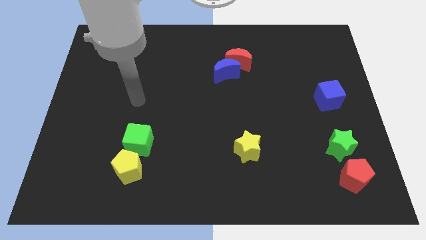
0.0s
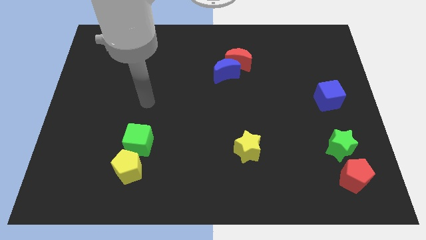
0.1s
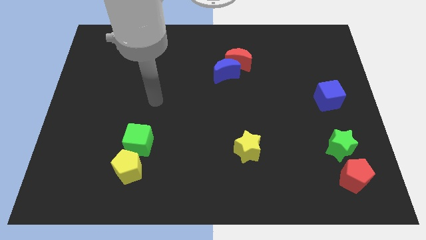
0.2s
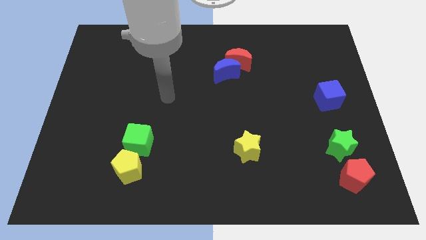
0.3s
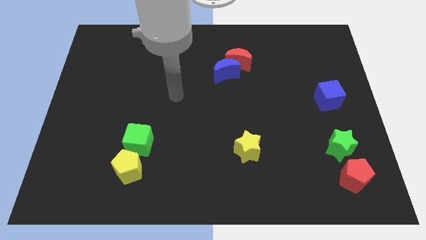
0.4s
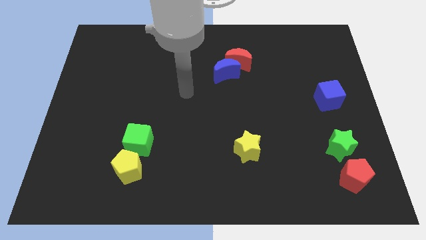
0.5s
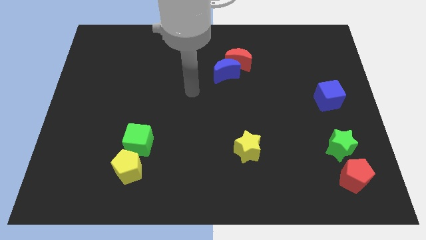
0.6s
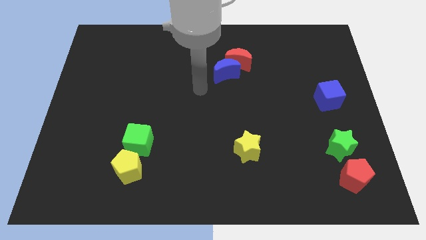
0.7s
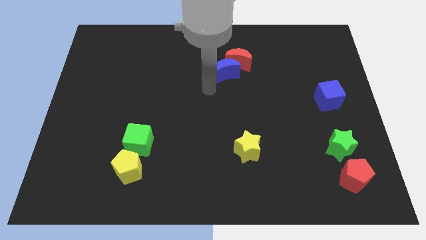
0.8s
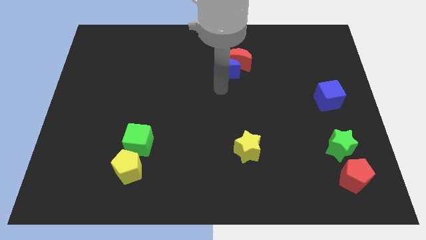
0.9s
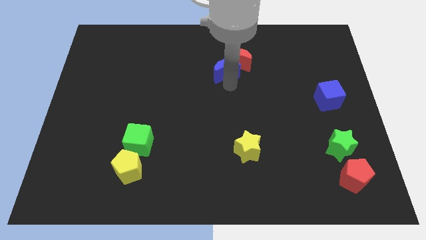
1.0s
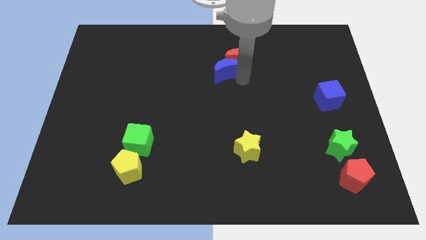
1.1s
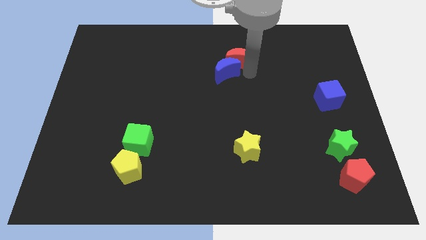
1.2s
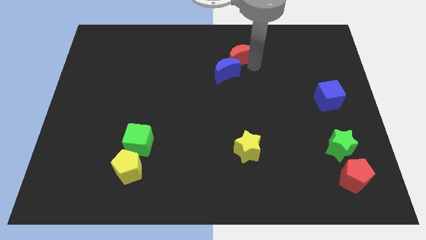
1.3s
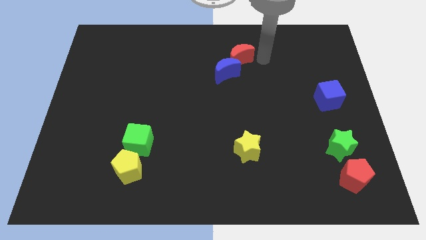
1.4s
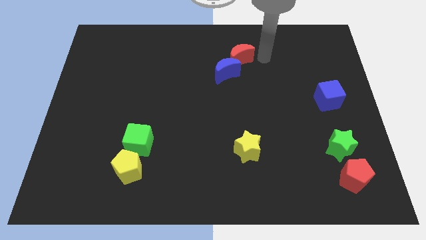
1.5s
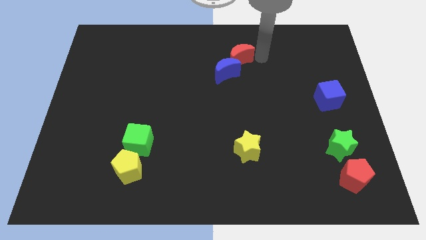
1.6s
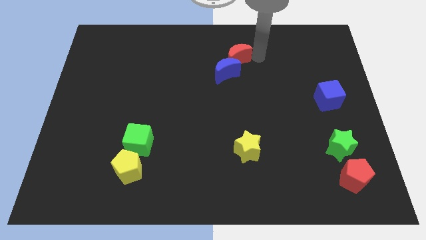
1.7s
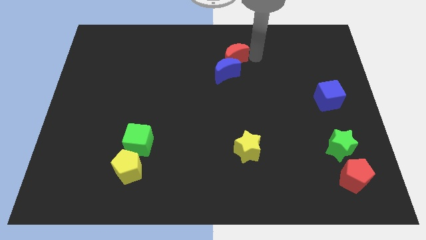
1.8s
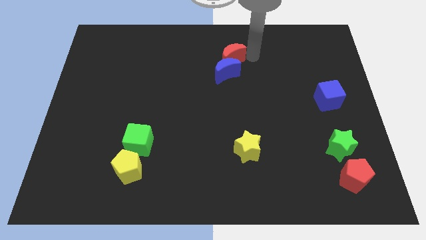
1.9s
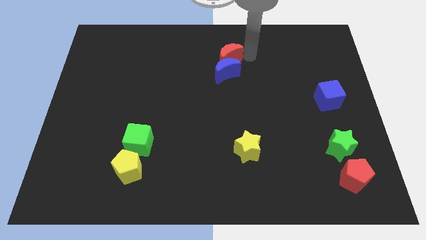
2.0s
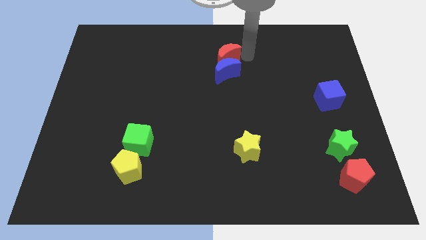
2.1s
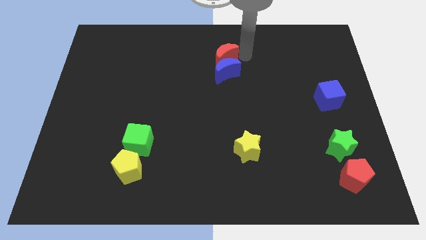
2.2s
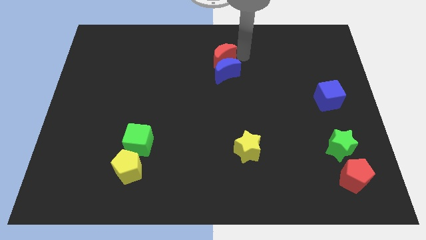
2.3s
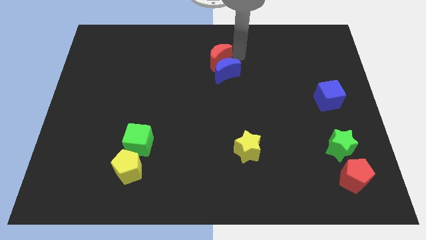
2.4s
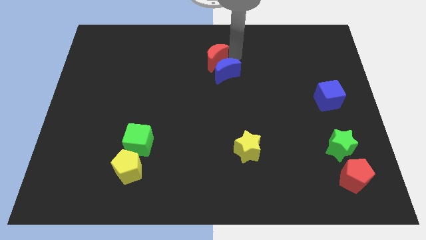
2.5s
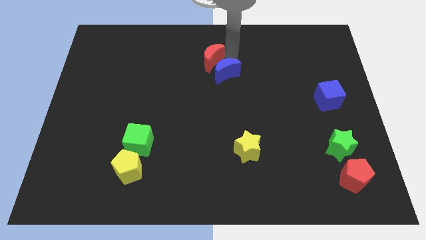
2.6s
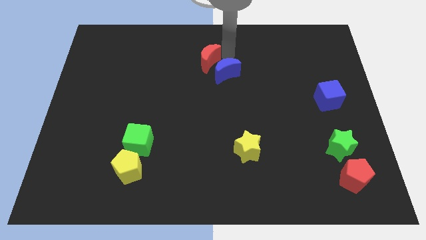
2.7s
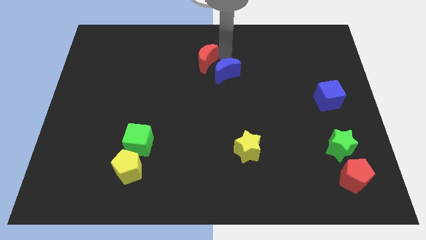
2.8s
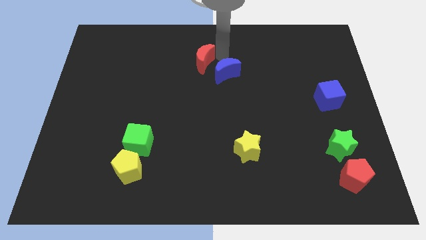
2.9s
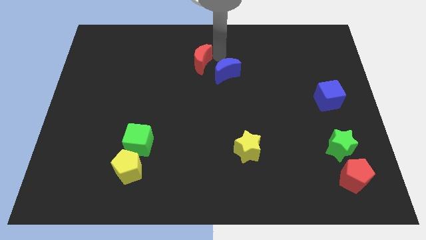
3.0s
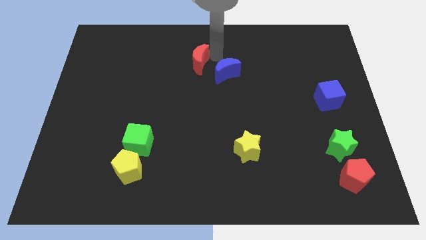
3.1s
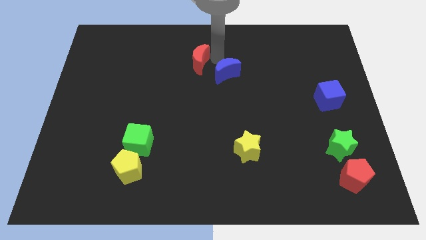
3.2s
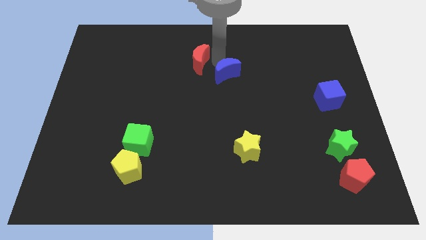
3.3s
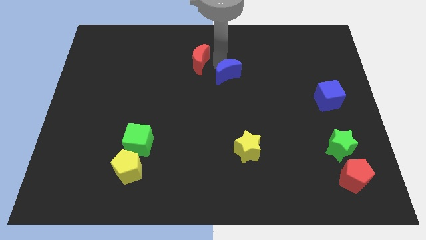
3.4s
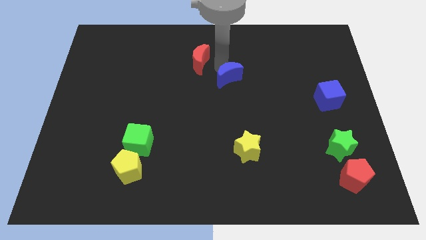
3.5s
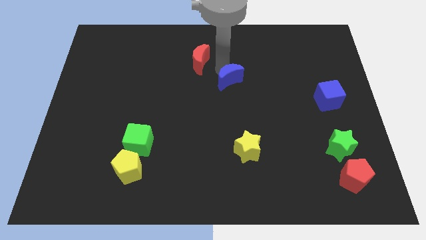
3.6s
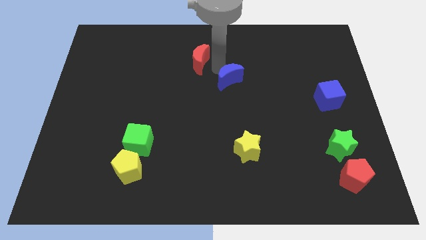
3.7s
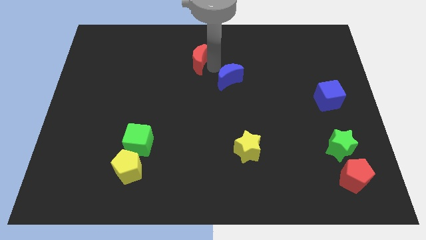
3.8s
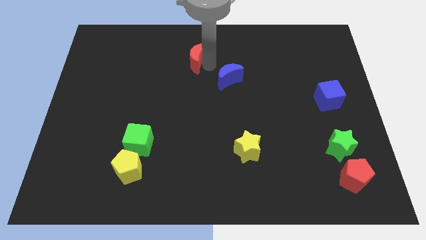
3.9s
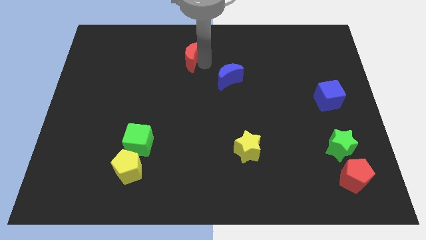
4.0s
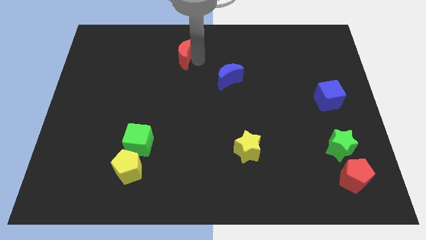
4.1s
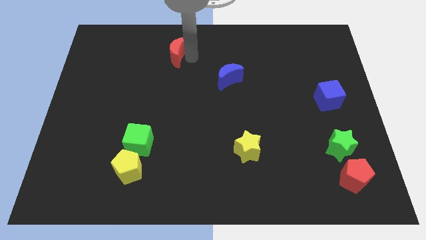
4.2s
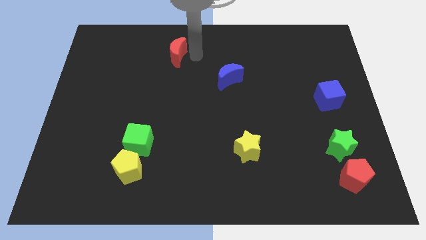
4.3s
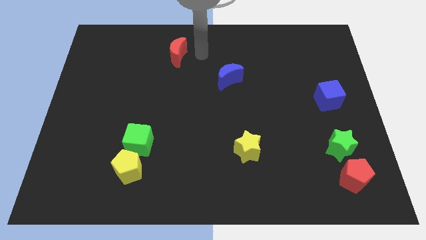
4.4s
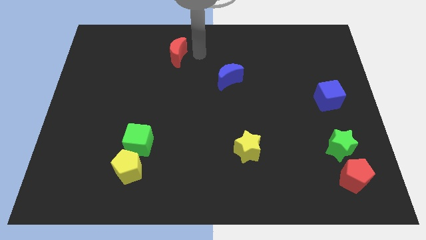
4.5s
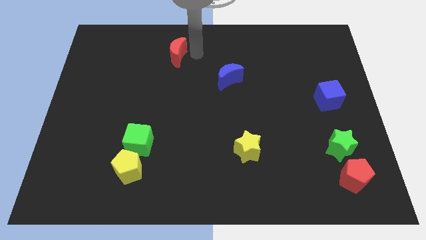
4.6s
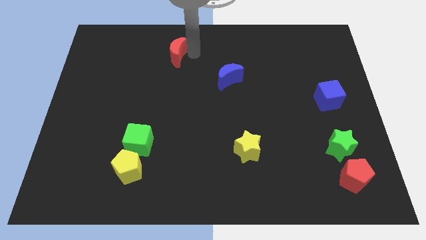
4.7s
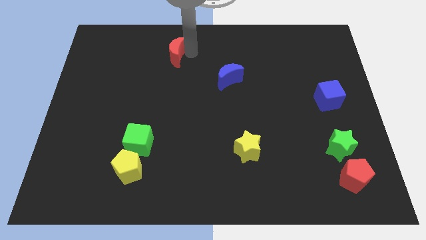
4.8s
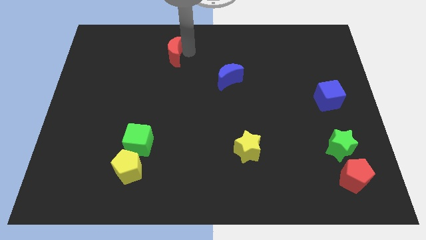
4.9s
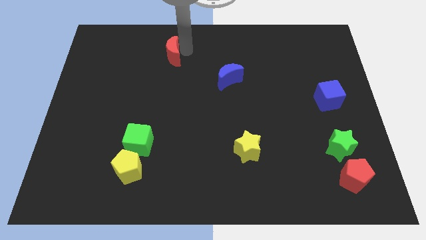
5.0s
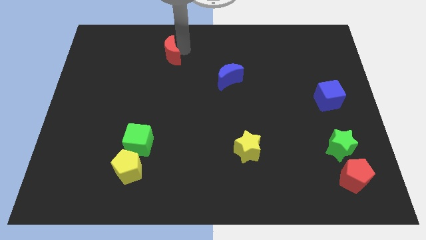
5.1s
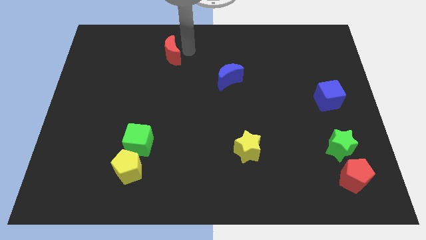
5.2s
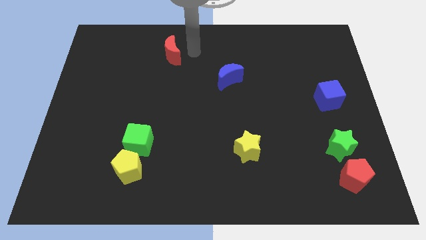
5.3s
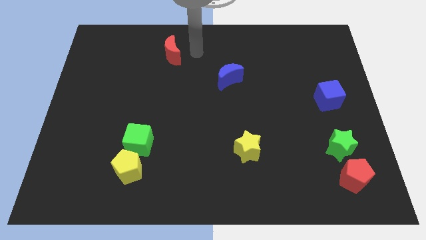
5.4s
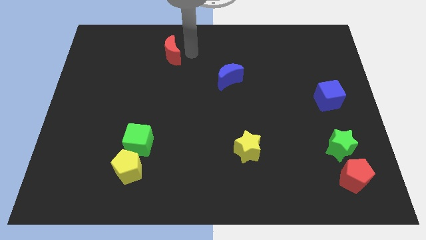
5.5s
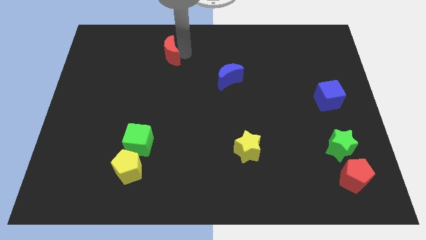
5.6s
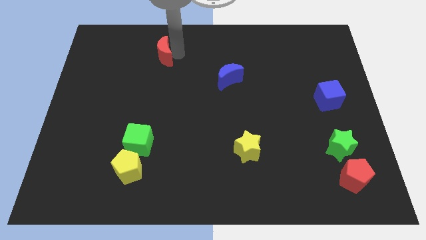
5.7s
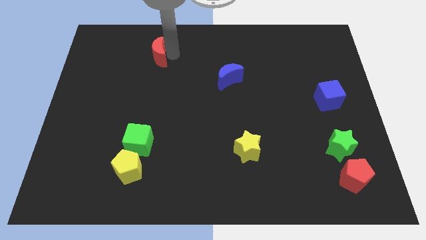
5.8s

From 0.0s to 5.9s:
slide the red moon to the left

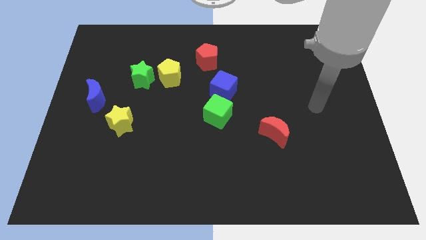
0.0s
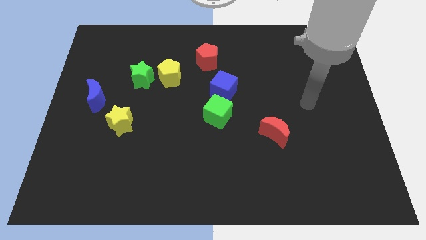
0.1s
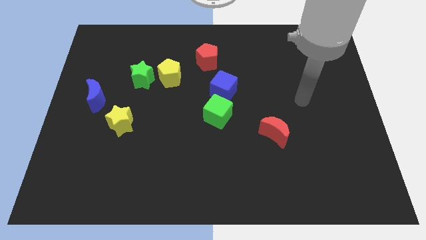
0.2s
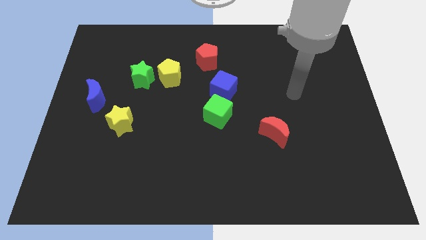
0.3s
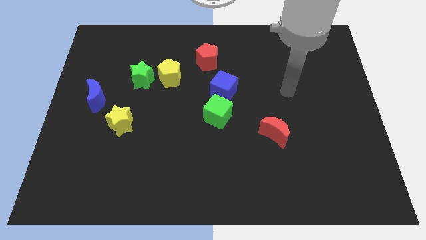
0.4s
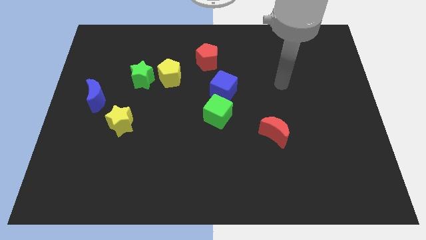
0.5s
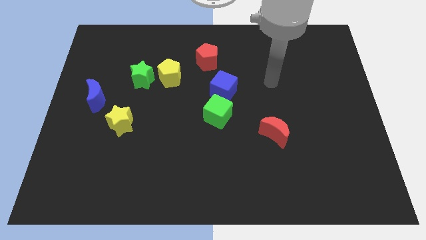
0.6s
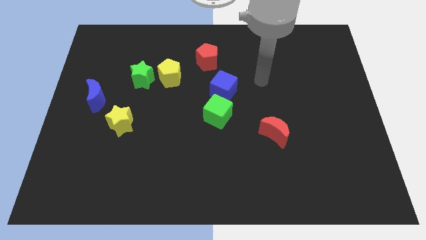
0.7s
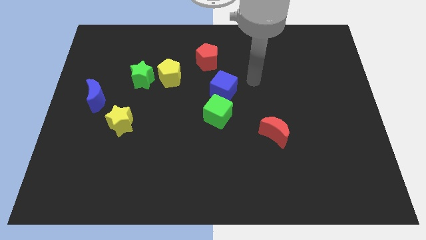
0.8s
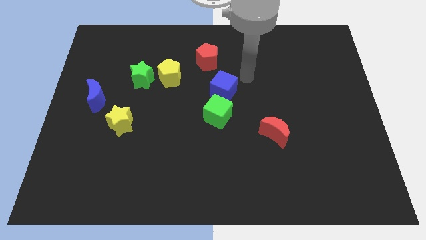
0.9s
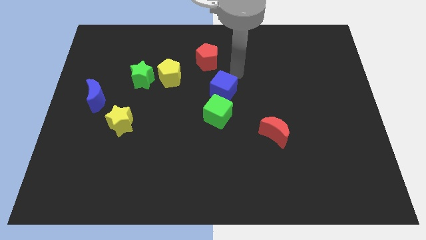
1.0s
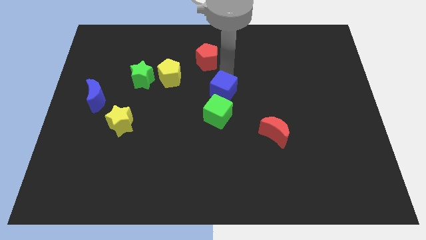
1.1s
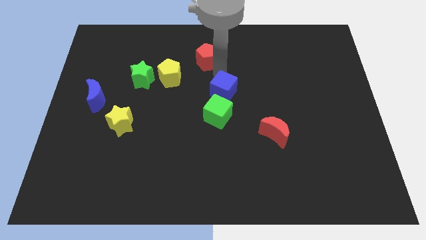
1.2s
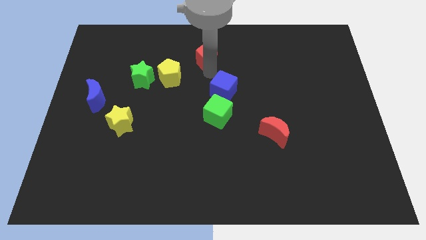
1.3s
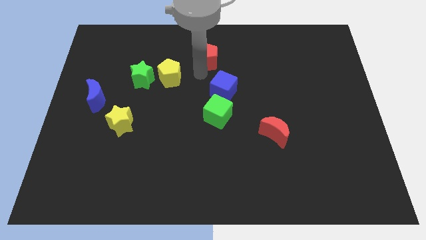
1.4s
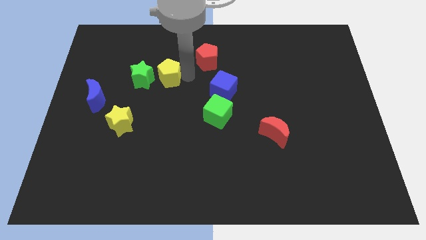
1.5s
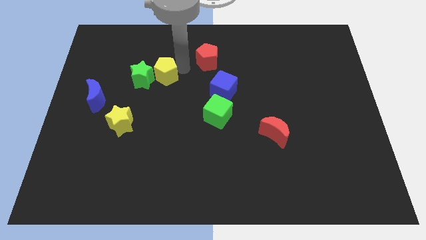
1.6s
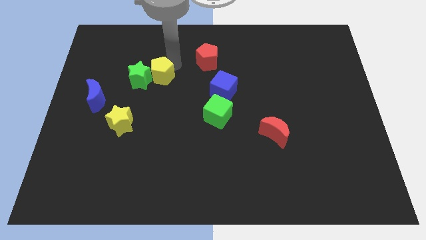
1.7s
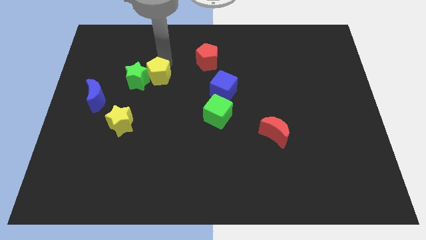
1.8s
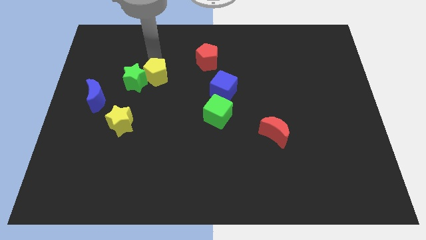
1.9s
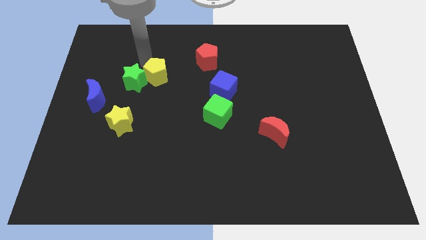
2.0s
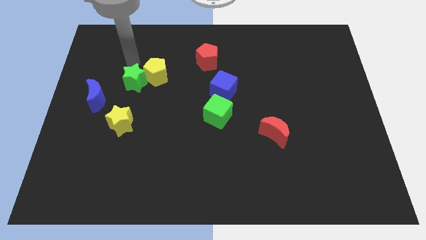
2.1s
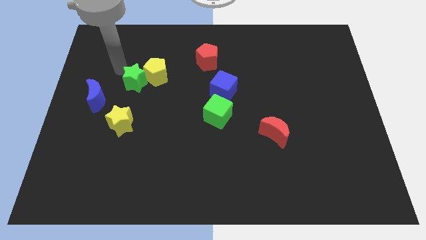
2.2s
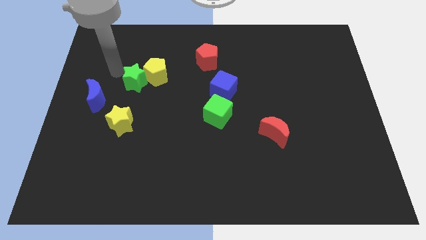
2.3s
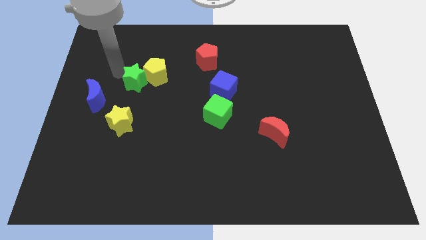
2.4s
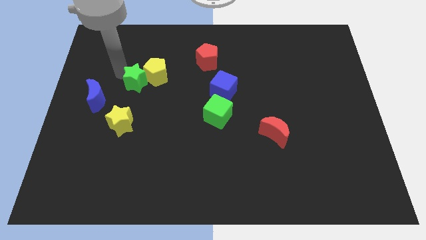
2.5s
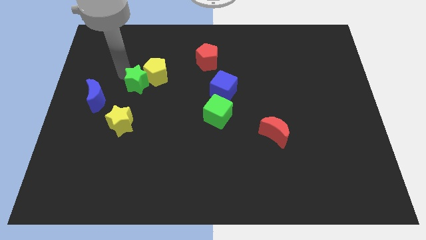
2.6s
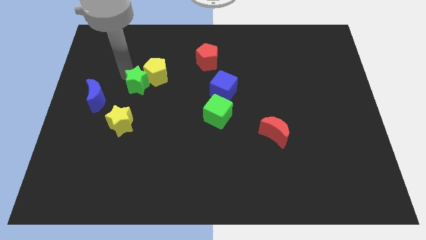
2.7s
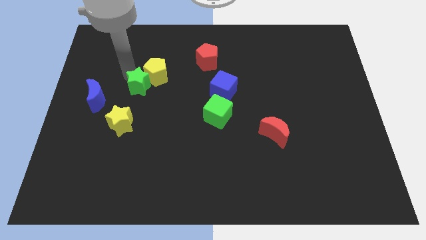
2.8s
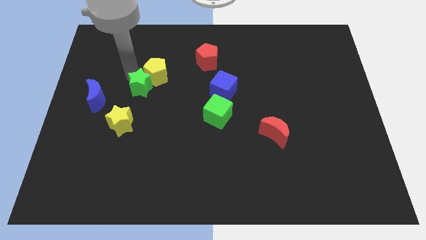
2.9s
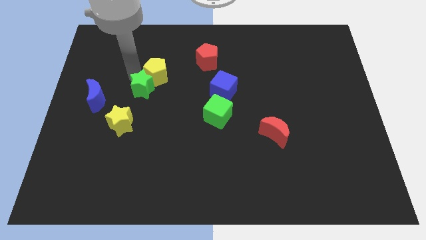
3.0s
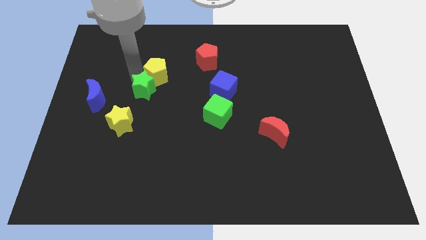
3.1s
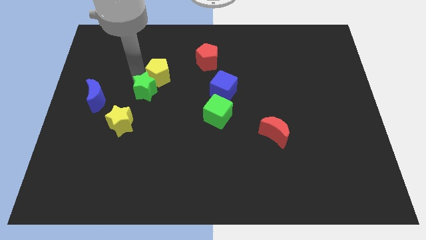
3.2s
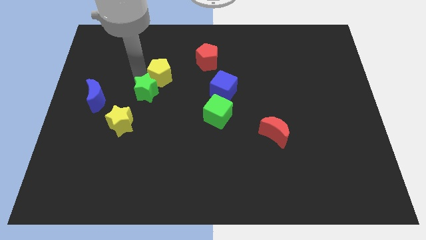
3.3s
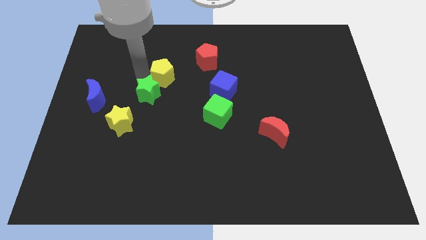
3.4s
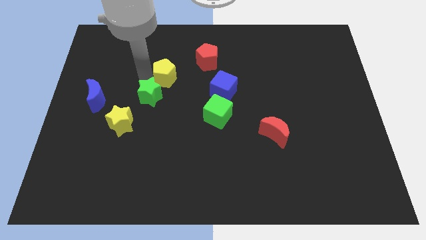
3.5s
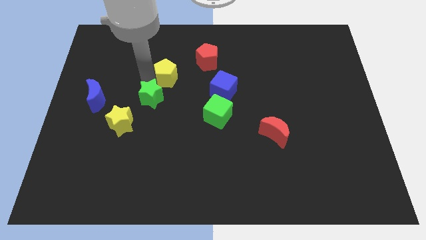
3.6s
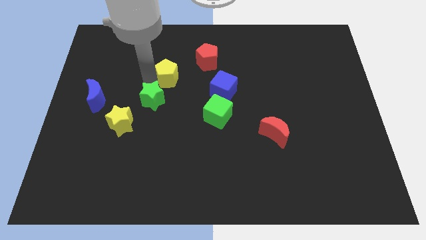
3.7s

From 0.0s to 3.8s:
move the green star a little bit downwards and to the right
